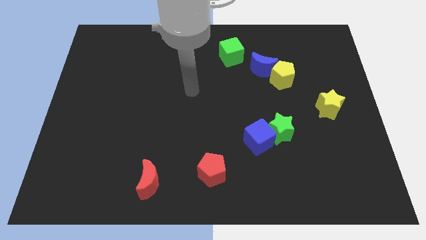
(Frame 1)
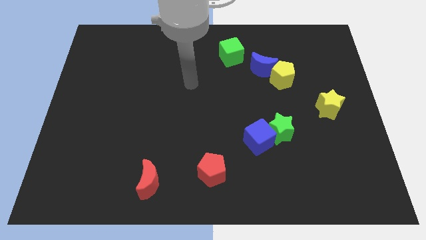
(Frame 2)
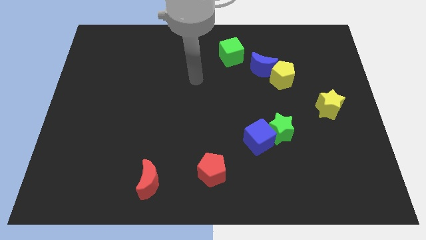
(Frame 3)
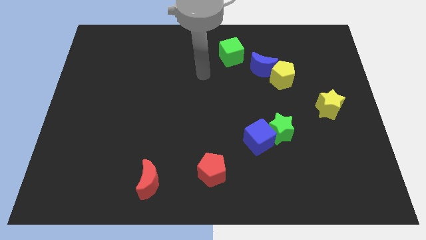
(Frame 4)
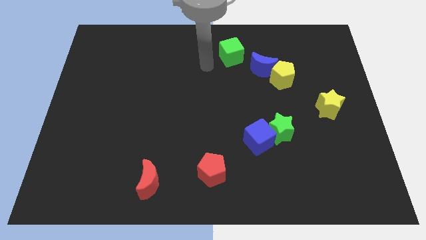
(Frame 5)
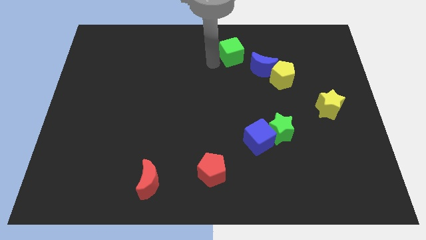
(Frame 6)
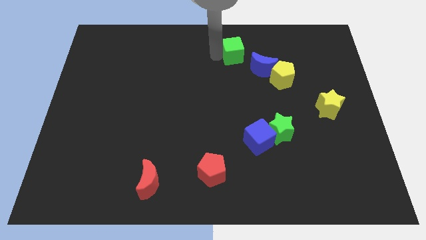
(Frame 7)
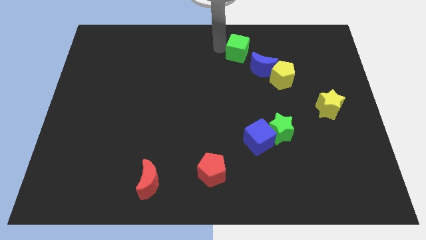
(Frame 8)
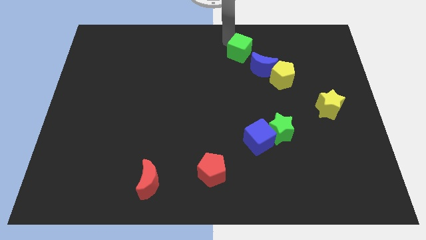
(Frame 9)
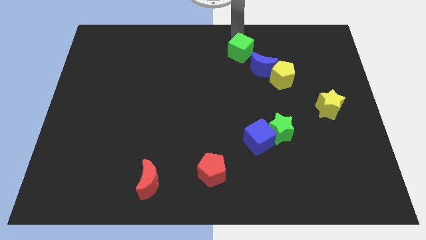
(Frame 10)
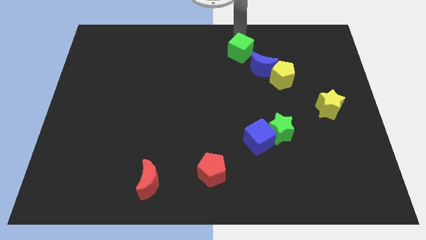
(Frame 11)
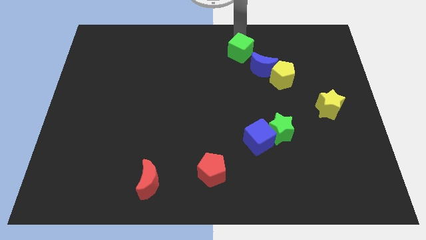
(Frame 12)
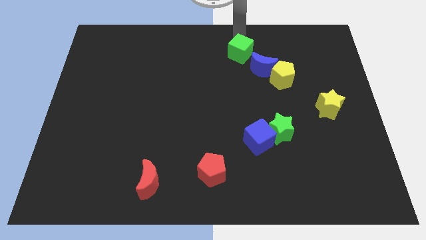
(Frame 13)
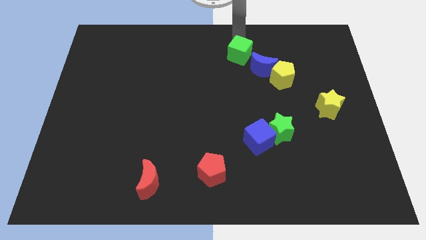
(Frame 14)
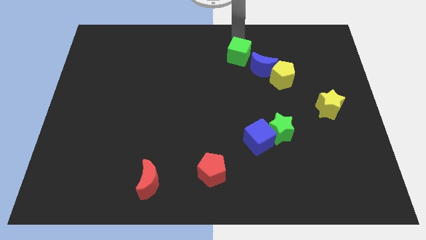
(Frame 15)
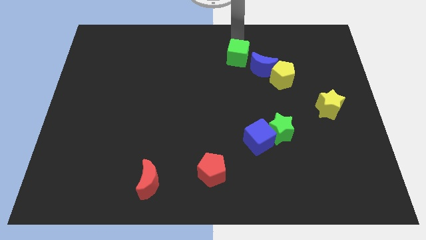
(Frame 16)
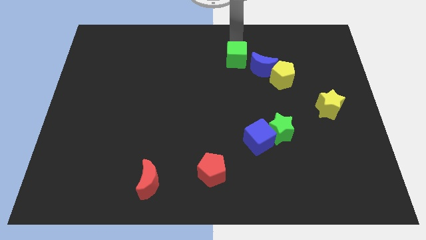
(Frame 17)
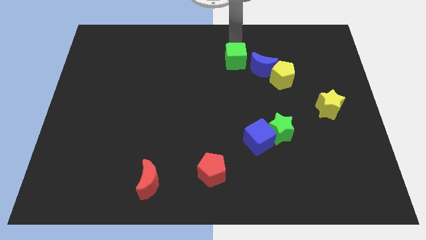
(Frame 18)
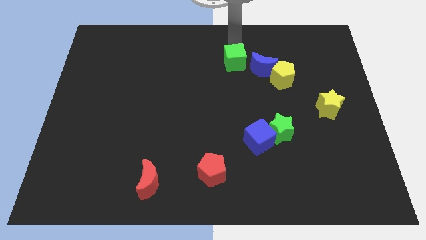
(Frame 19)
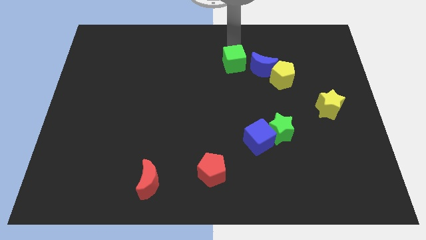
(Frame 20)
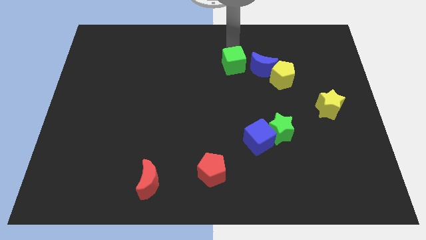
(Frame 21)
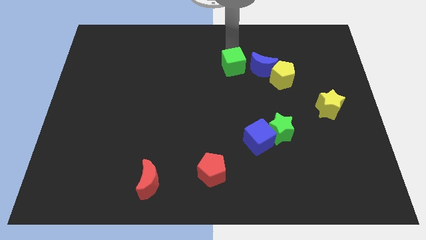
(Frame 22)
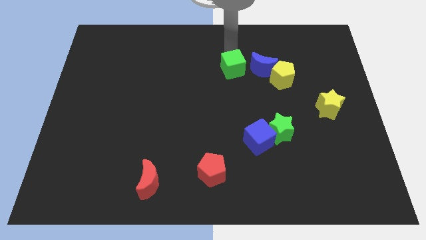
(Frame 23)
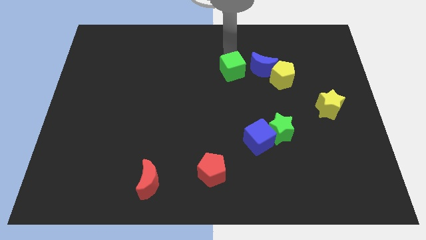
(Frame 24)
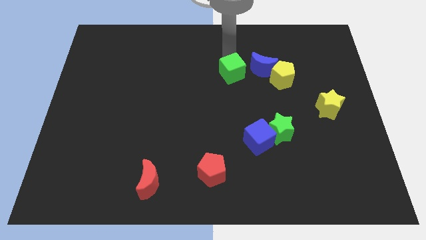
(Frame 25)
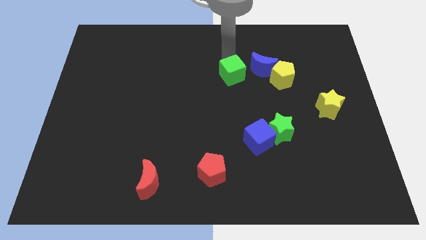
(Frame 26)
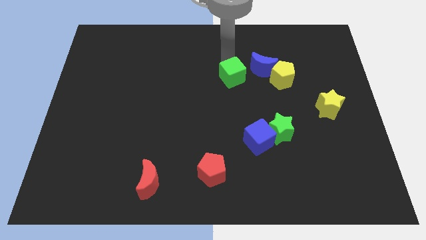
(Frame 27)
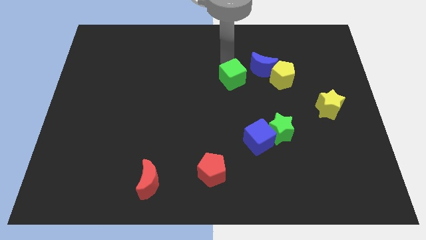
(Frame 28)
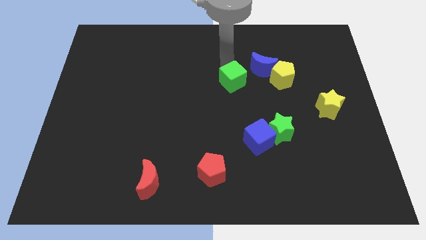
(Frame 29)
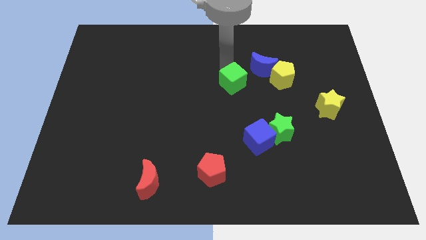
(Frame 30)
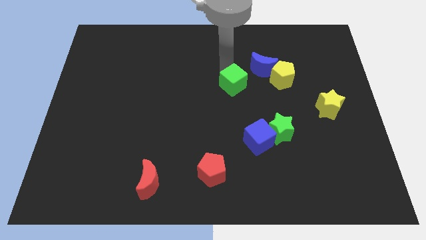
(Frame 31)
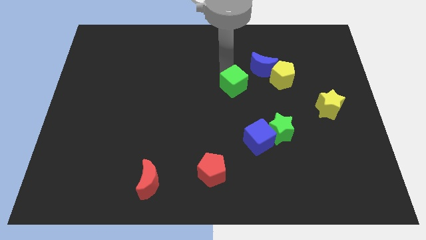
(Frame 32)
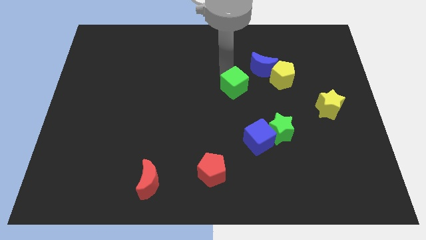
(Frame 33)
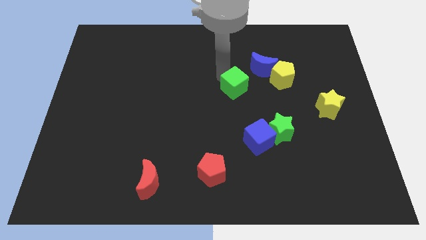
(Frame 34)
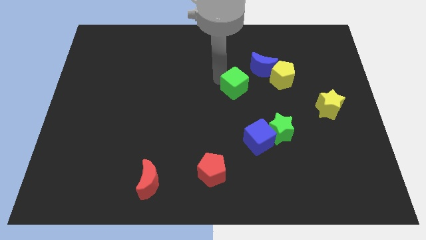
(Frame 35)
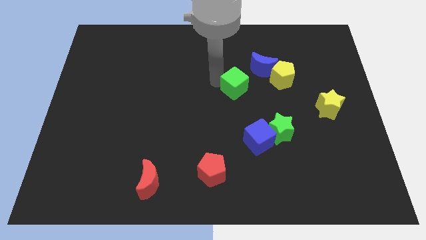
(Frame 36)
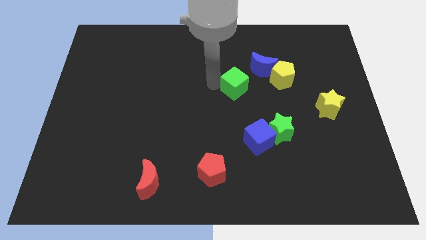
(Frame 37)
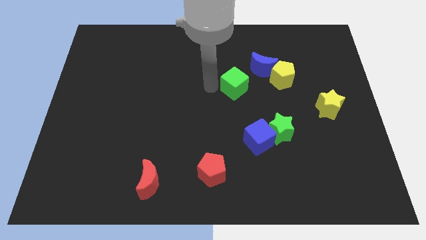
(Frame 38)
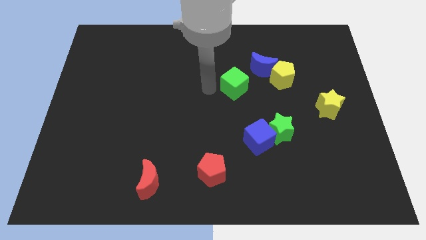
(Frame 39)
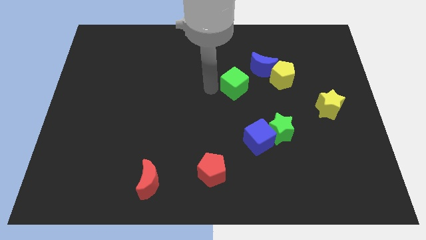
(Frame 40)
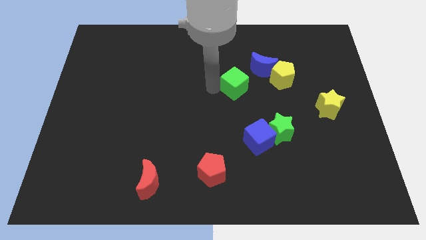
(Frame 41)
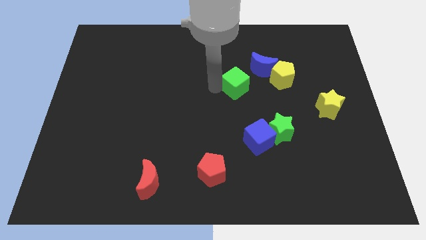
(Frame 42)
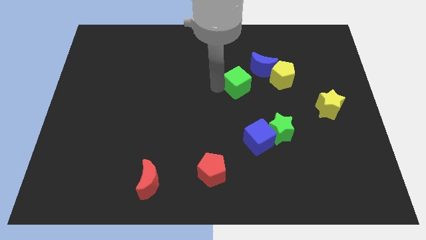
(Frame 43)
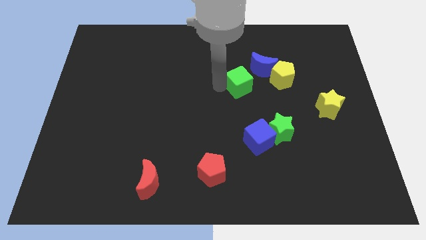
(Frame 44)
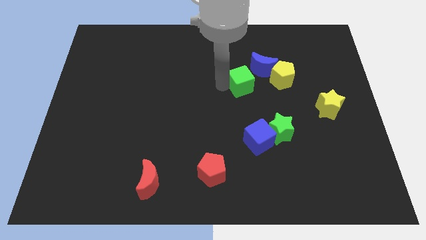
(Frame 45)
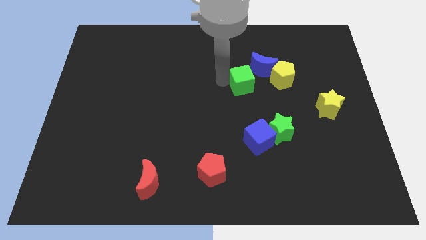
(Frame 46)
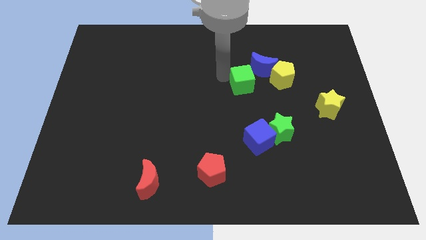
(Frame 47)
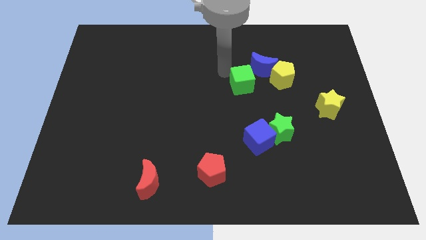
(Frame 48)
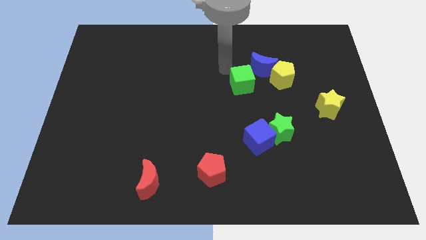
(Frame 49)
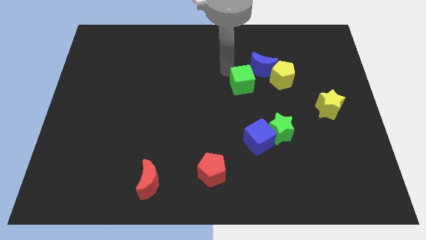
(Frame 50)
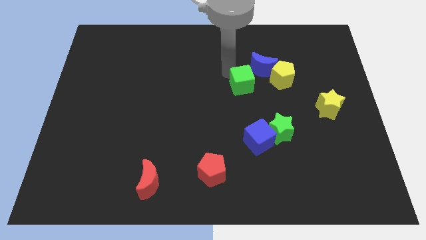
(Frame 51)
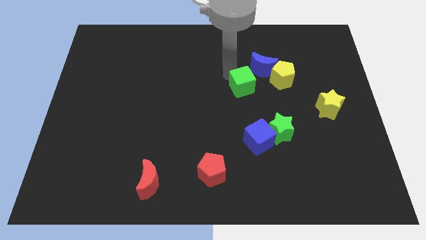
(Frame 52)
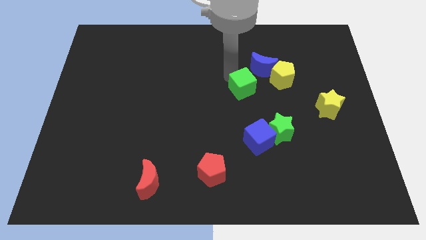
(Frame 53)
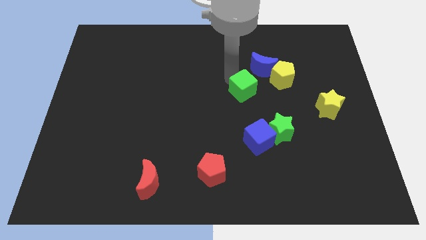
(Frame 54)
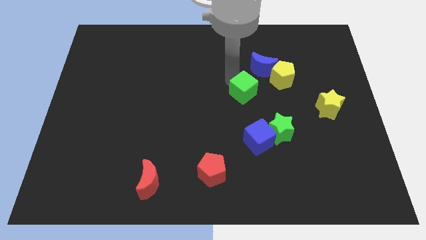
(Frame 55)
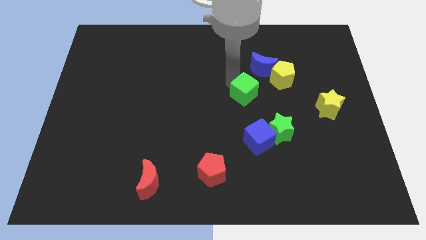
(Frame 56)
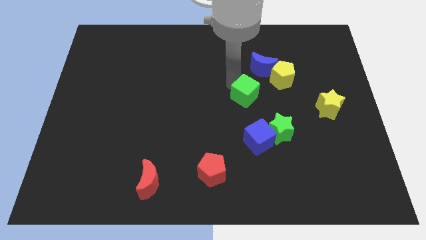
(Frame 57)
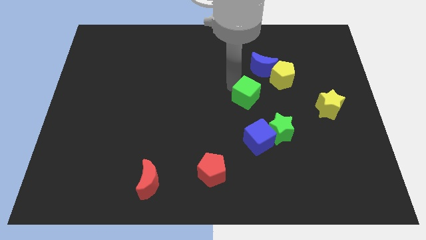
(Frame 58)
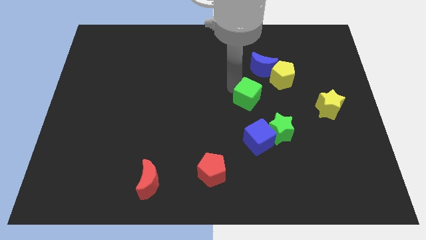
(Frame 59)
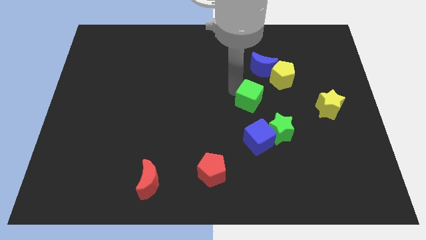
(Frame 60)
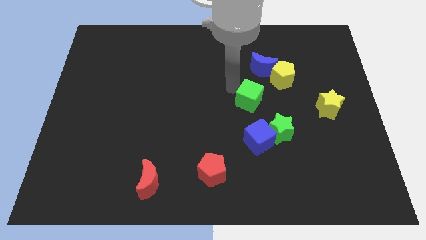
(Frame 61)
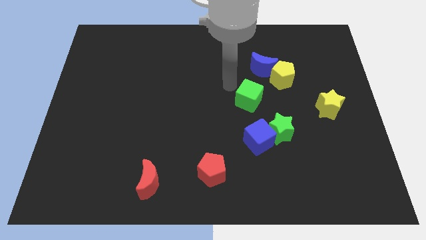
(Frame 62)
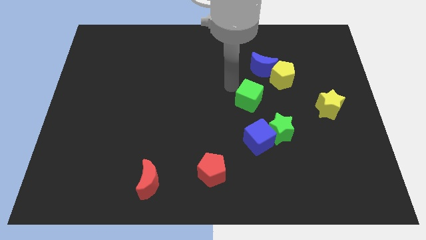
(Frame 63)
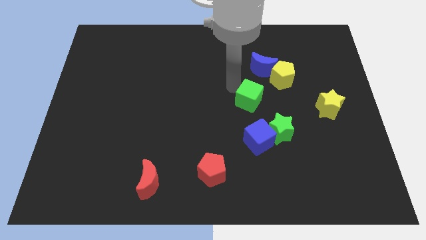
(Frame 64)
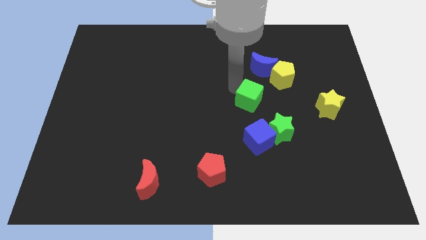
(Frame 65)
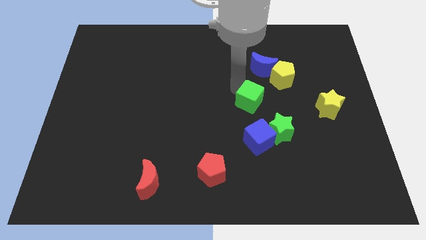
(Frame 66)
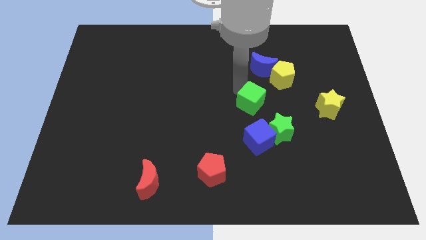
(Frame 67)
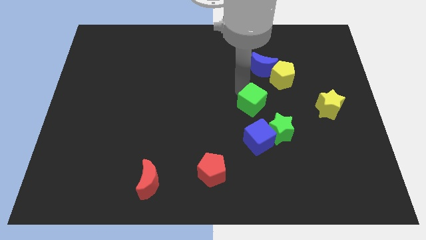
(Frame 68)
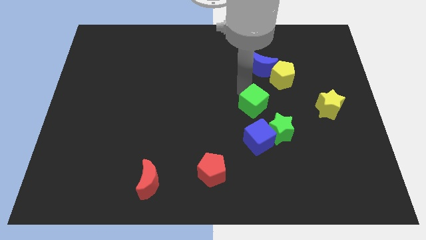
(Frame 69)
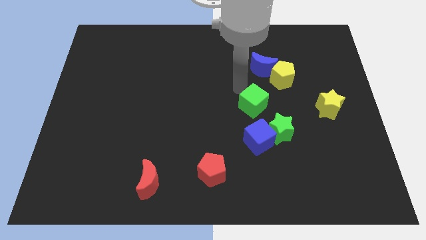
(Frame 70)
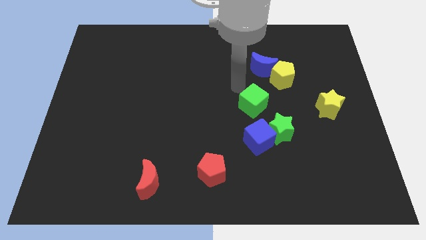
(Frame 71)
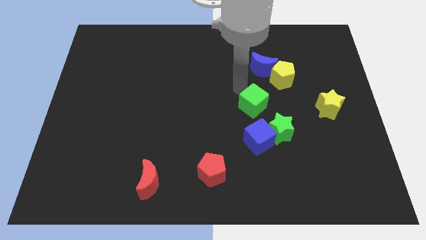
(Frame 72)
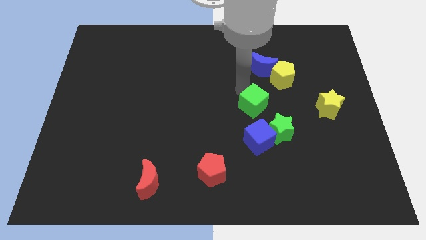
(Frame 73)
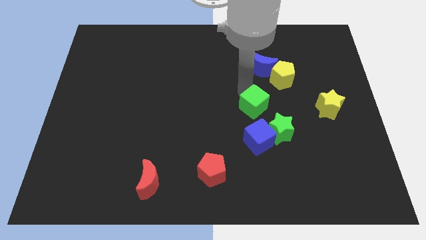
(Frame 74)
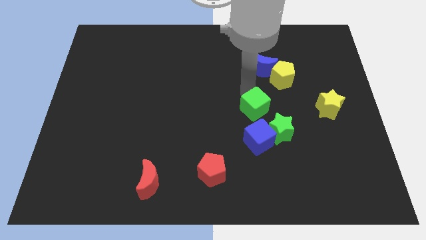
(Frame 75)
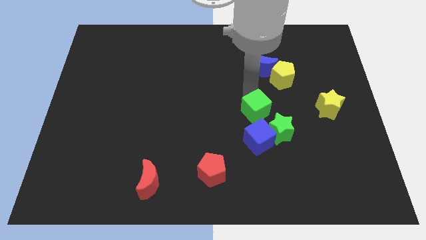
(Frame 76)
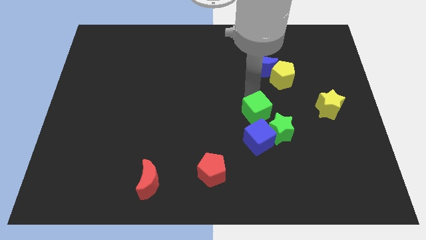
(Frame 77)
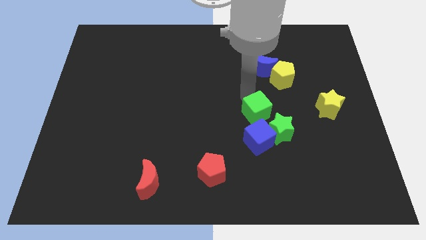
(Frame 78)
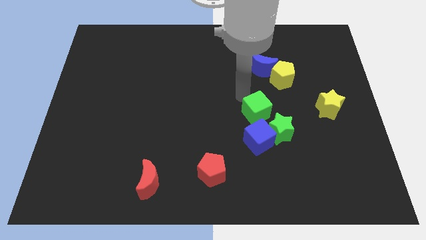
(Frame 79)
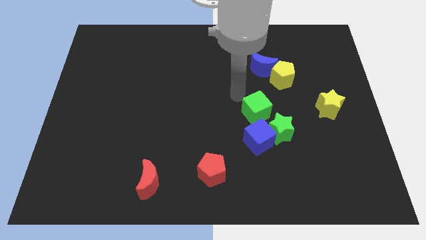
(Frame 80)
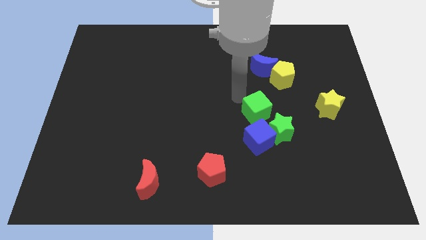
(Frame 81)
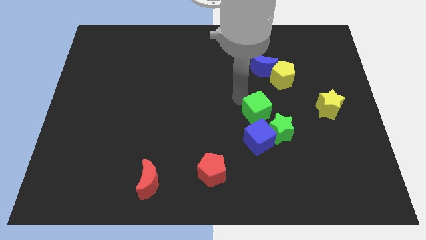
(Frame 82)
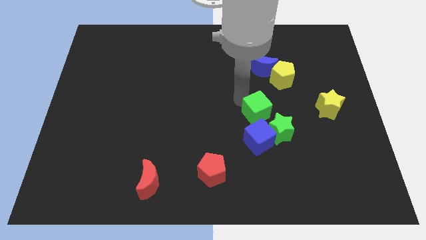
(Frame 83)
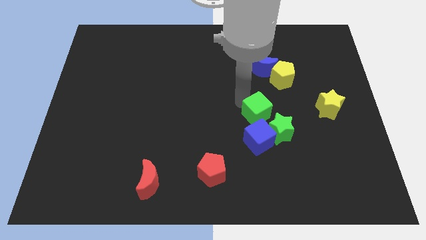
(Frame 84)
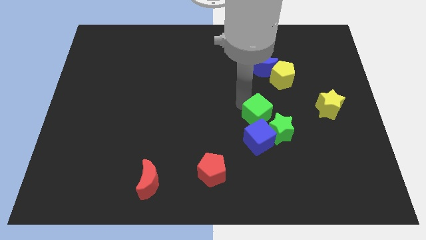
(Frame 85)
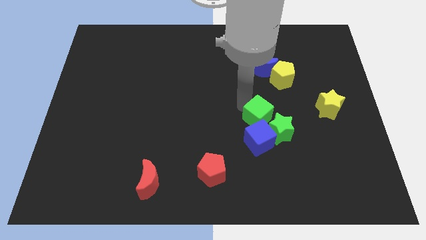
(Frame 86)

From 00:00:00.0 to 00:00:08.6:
put the green cube close to the green star
